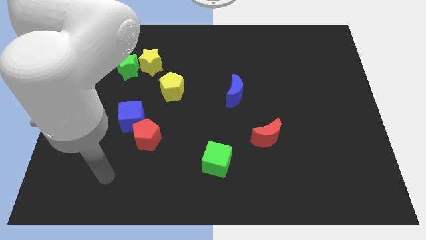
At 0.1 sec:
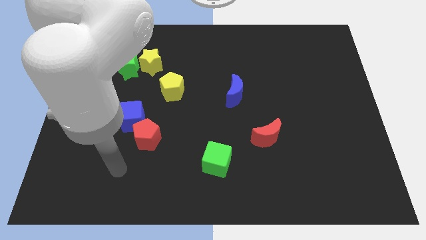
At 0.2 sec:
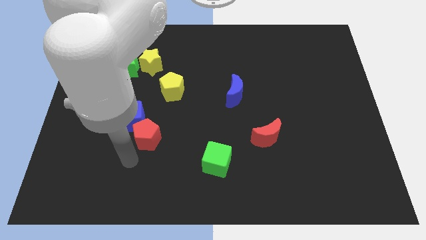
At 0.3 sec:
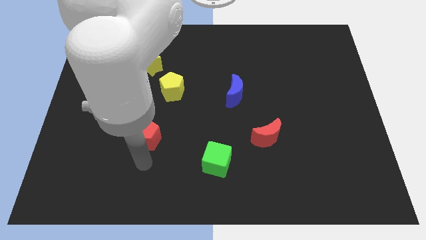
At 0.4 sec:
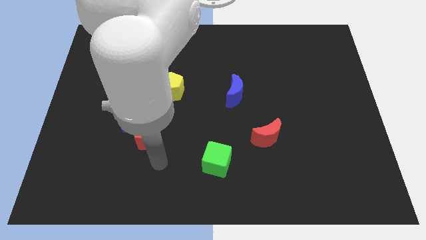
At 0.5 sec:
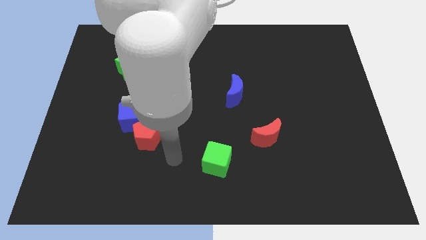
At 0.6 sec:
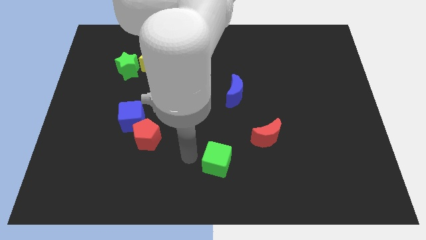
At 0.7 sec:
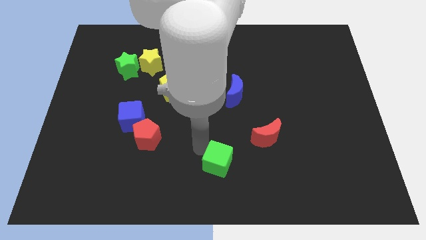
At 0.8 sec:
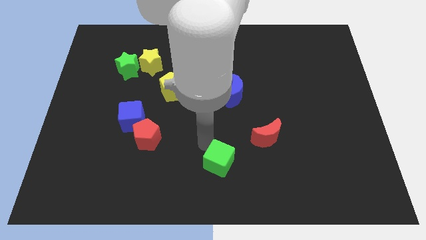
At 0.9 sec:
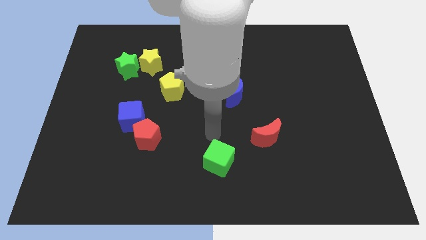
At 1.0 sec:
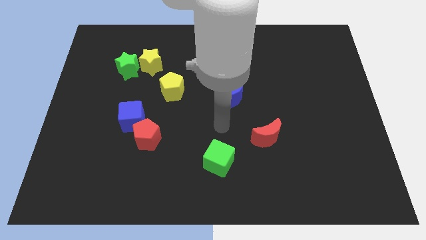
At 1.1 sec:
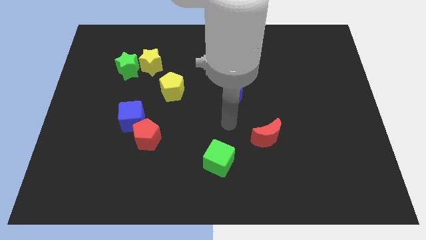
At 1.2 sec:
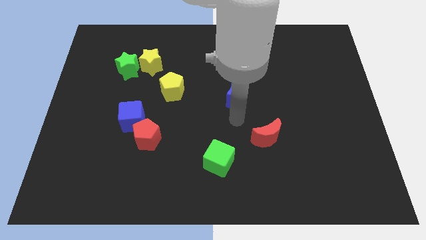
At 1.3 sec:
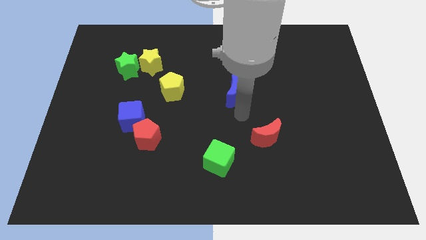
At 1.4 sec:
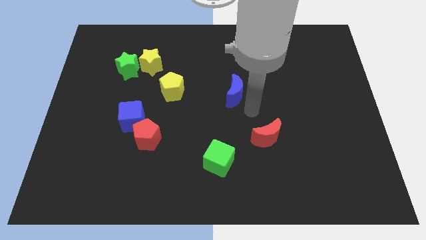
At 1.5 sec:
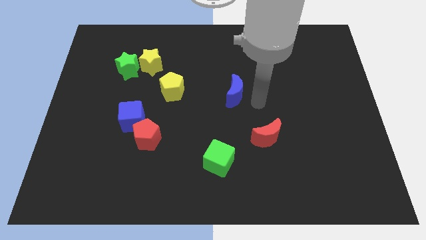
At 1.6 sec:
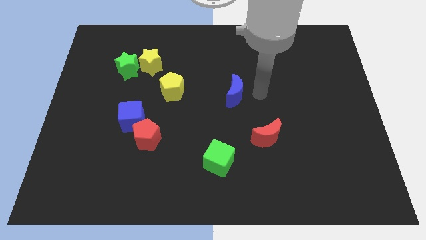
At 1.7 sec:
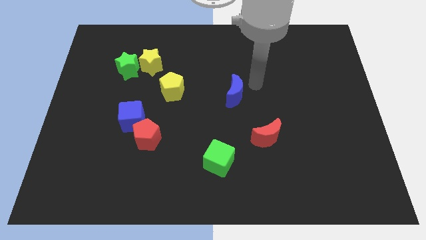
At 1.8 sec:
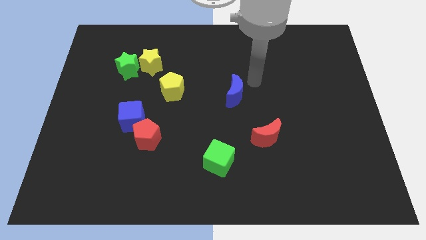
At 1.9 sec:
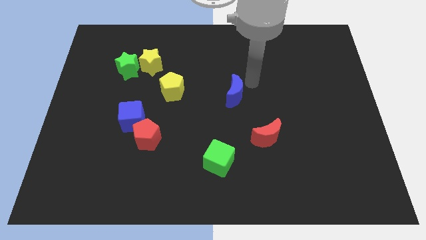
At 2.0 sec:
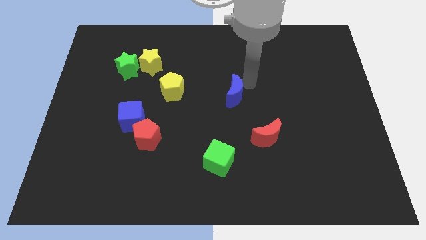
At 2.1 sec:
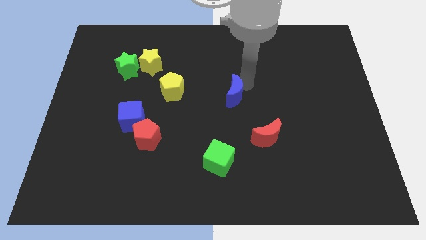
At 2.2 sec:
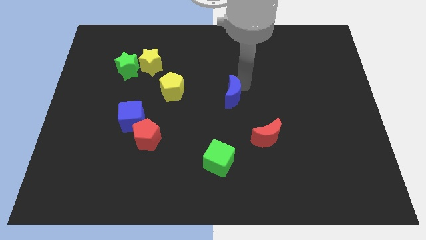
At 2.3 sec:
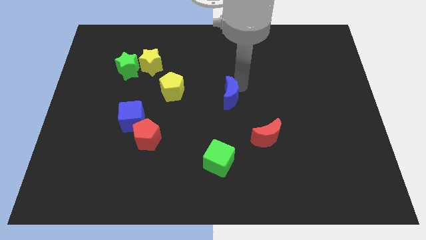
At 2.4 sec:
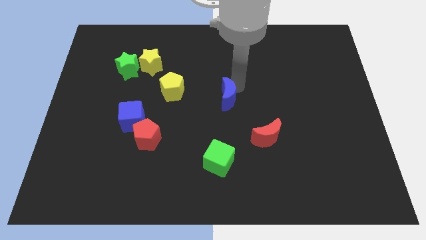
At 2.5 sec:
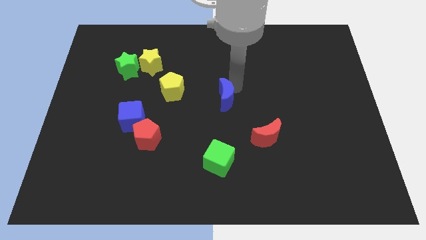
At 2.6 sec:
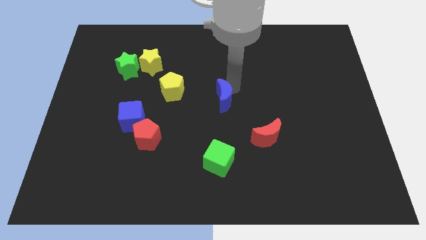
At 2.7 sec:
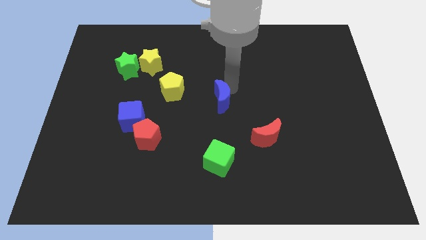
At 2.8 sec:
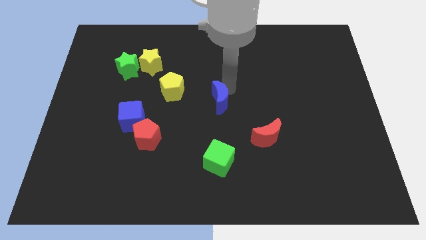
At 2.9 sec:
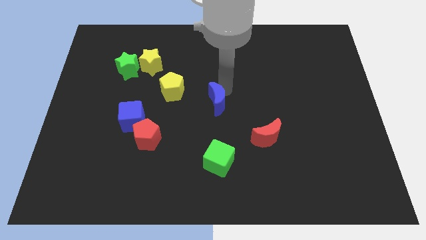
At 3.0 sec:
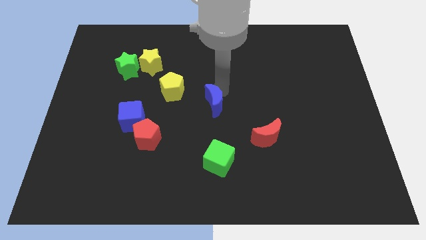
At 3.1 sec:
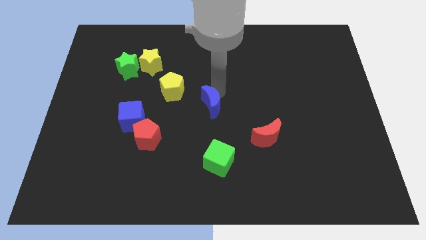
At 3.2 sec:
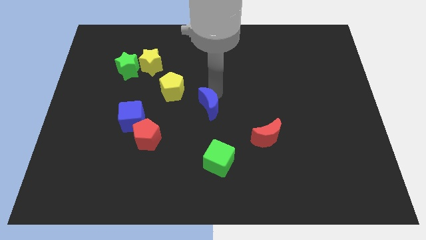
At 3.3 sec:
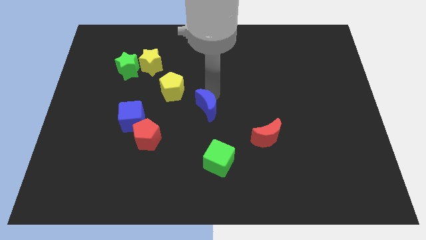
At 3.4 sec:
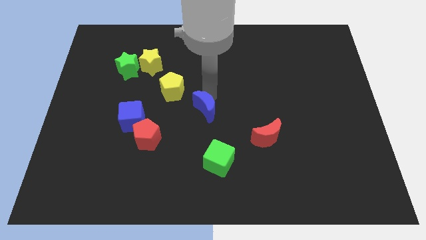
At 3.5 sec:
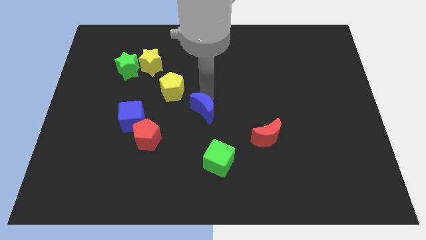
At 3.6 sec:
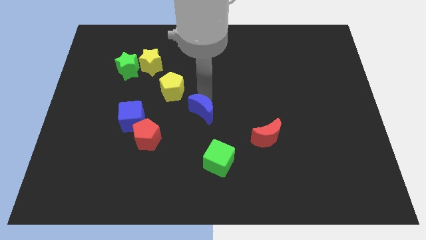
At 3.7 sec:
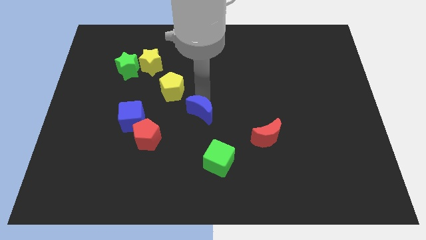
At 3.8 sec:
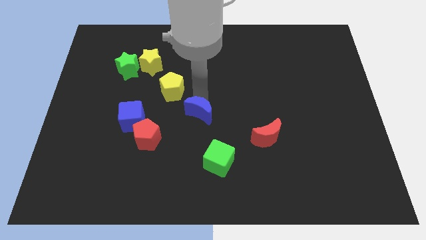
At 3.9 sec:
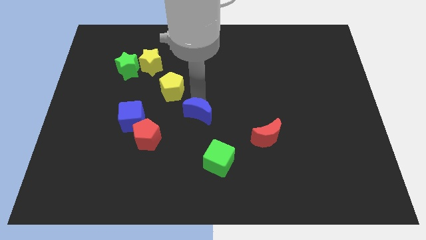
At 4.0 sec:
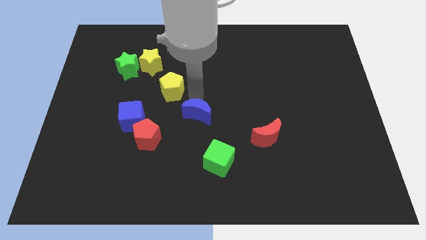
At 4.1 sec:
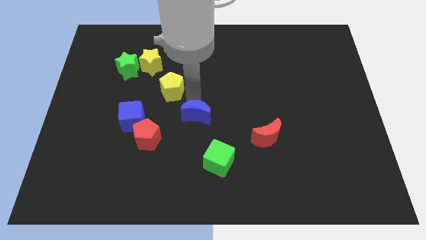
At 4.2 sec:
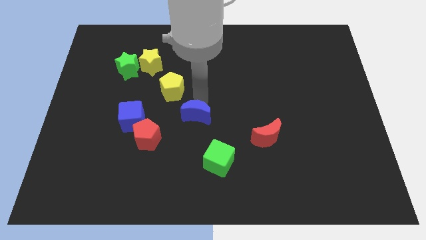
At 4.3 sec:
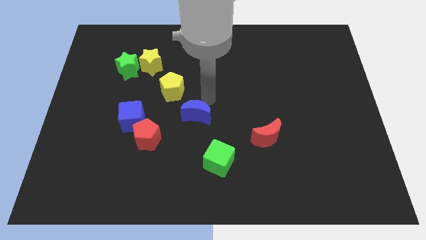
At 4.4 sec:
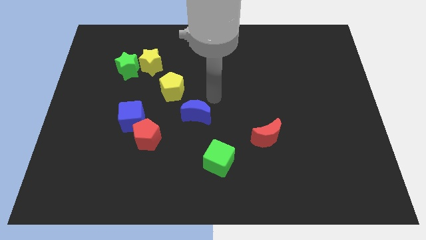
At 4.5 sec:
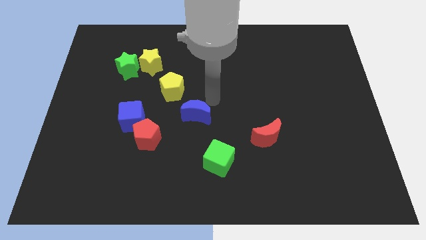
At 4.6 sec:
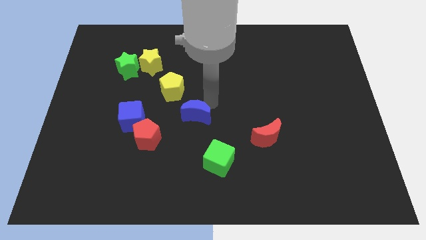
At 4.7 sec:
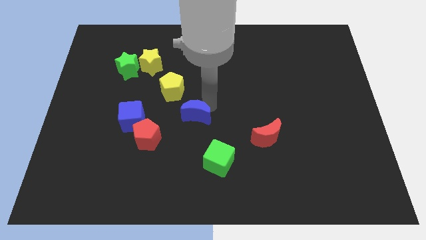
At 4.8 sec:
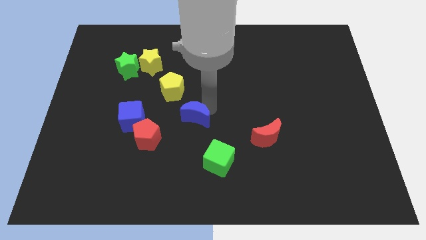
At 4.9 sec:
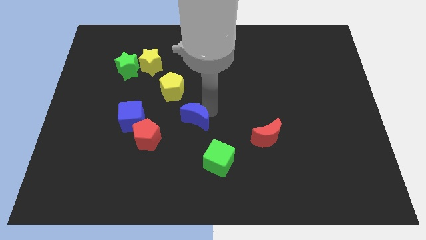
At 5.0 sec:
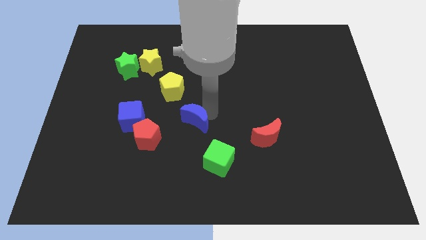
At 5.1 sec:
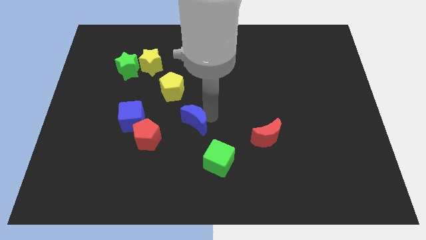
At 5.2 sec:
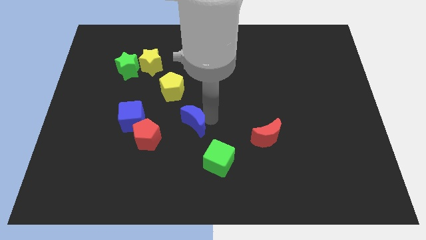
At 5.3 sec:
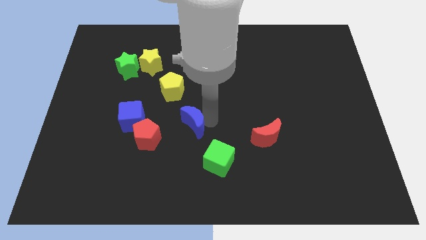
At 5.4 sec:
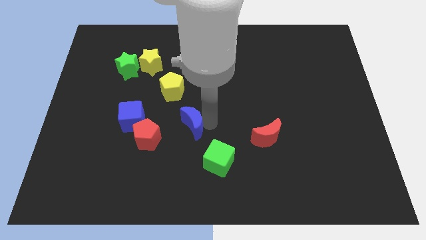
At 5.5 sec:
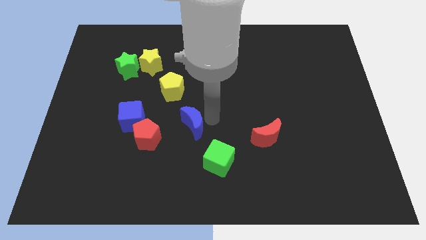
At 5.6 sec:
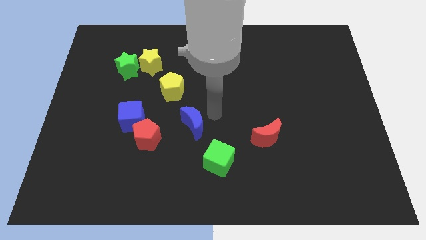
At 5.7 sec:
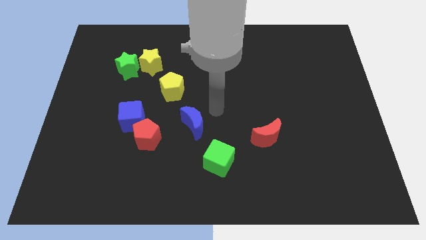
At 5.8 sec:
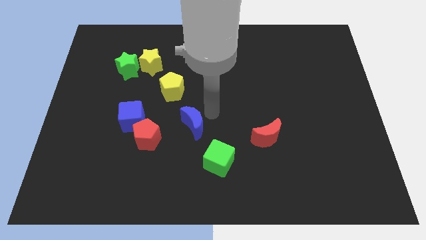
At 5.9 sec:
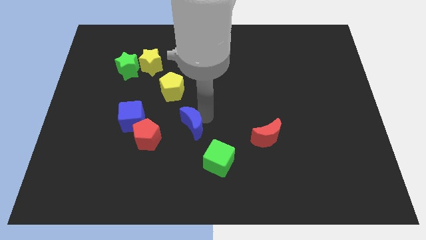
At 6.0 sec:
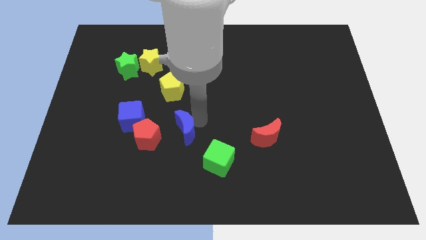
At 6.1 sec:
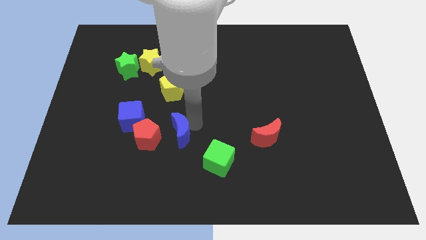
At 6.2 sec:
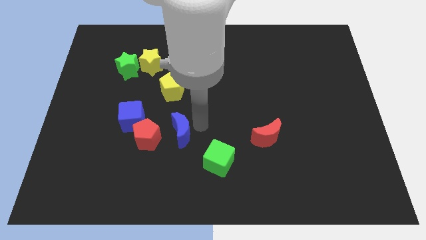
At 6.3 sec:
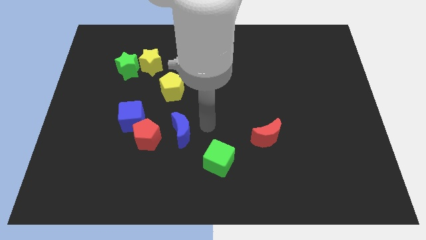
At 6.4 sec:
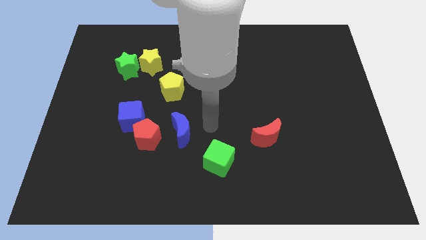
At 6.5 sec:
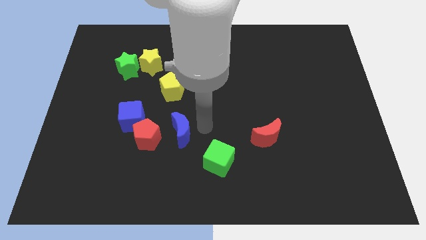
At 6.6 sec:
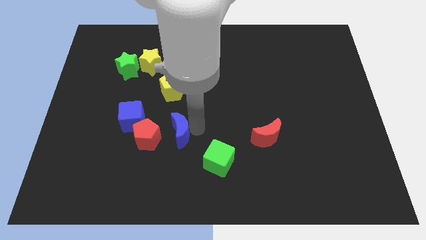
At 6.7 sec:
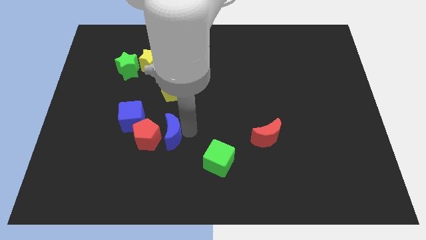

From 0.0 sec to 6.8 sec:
push the blue moon to the bottom right side of the blue cube

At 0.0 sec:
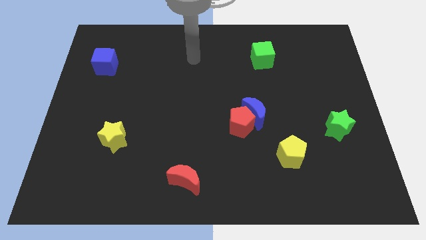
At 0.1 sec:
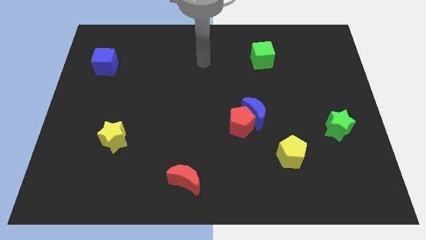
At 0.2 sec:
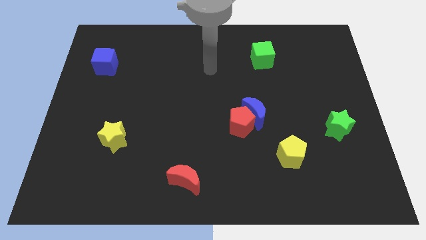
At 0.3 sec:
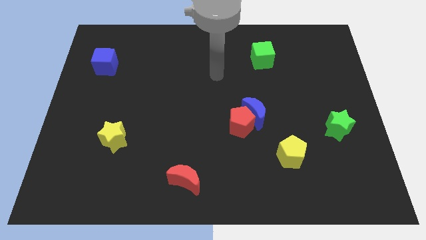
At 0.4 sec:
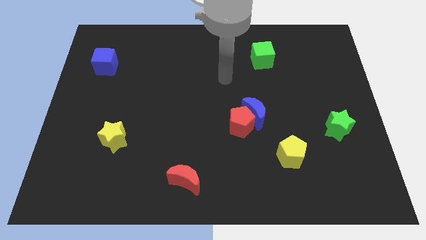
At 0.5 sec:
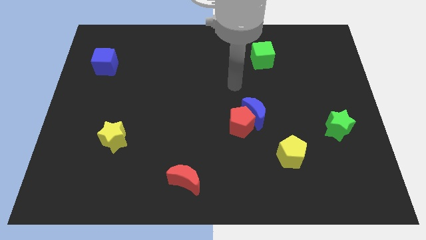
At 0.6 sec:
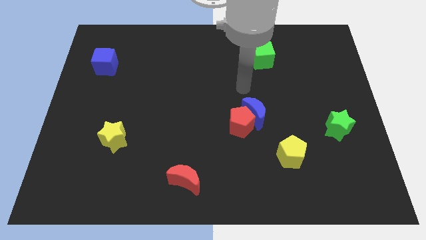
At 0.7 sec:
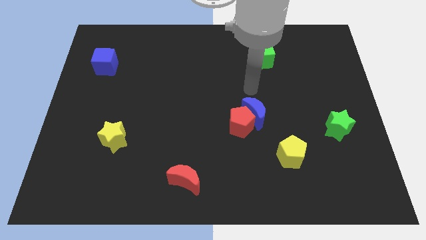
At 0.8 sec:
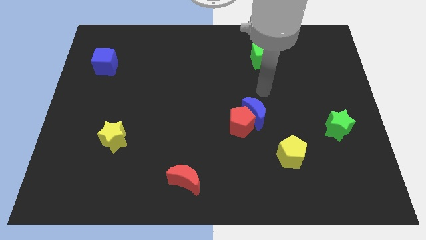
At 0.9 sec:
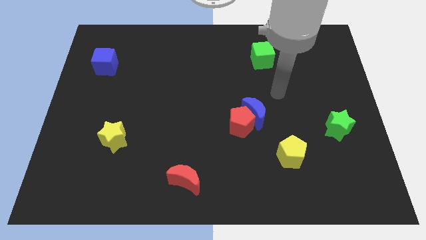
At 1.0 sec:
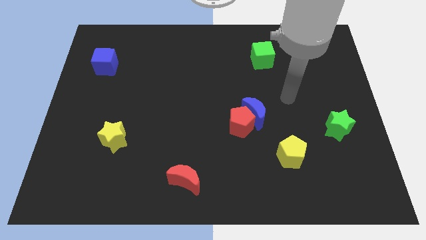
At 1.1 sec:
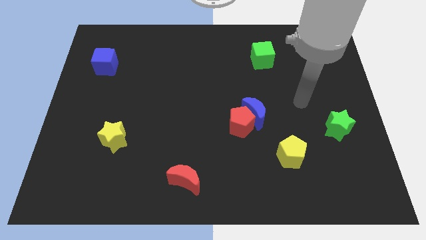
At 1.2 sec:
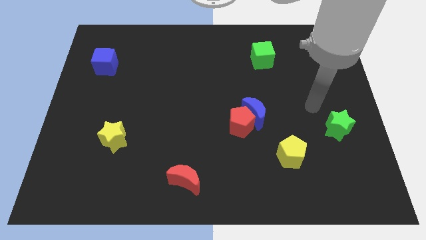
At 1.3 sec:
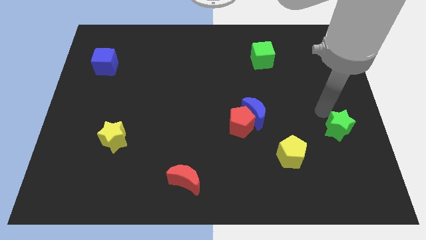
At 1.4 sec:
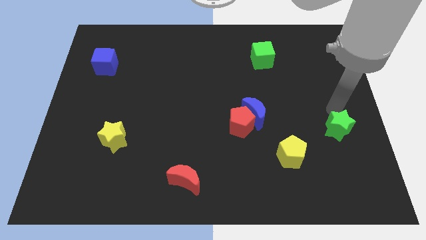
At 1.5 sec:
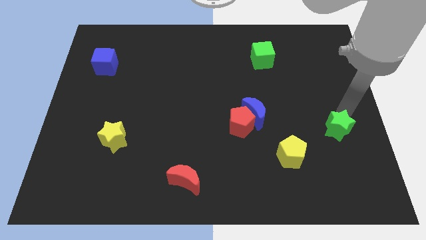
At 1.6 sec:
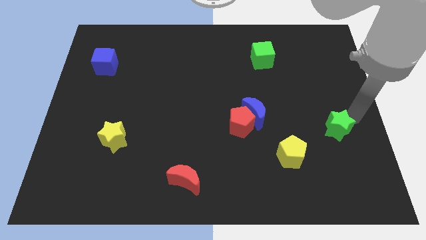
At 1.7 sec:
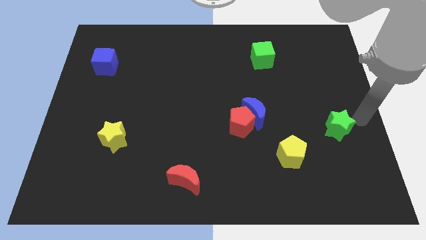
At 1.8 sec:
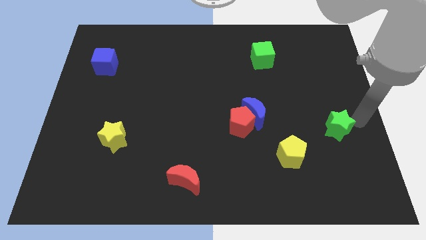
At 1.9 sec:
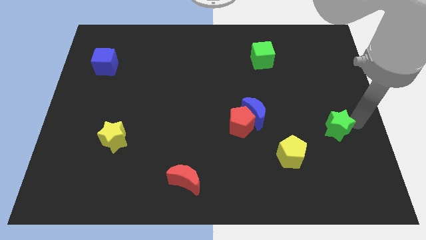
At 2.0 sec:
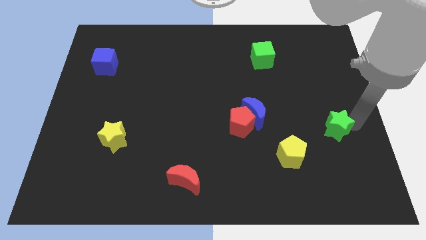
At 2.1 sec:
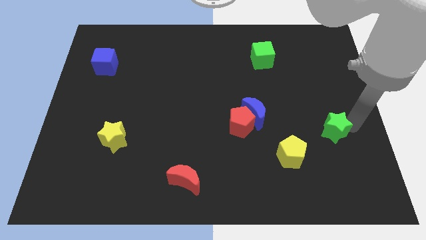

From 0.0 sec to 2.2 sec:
push the green star to the top right of the yellow pentagon
